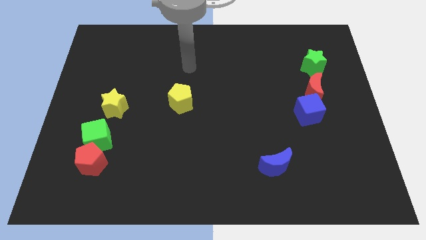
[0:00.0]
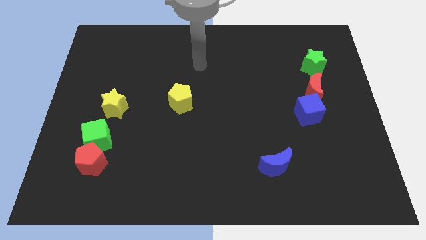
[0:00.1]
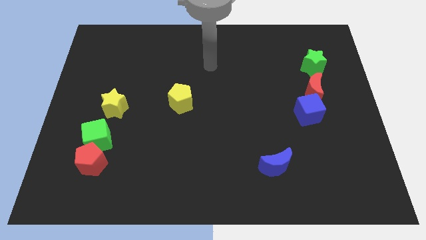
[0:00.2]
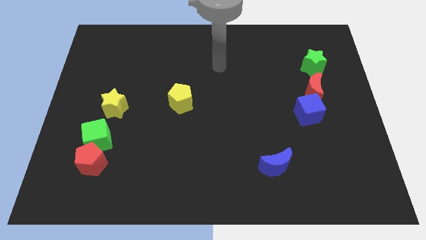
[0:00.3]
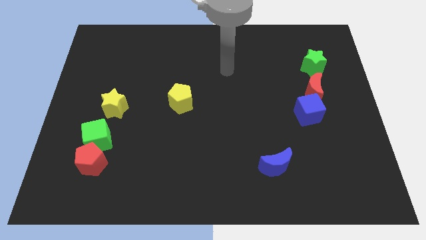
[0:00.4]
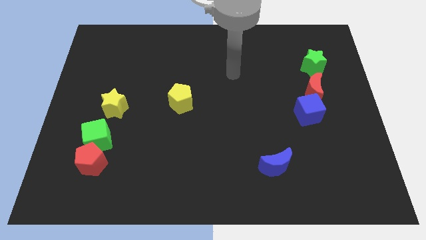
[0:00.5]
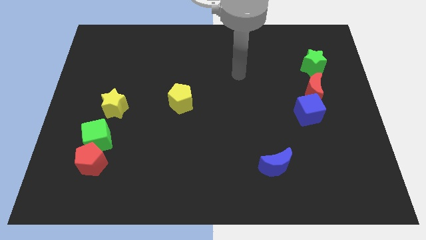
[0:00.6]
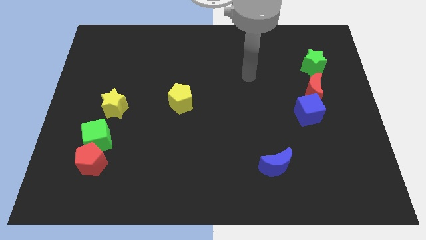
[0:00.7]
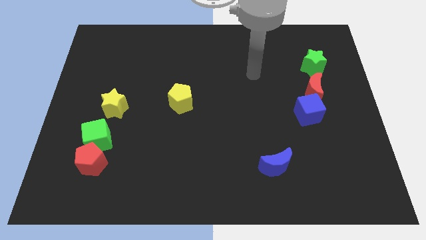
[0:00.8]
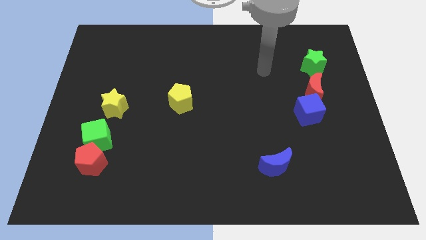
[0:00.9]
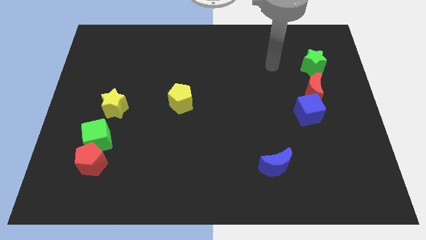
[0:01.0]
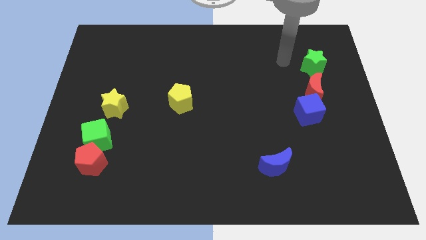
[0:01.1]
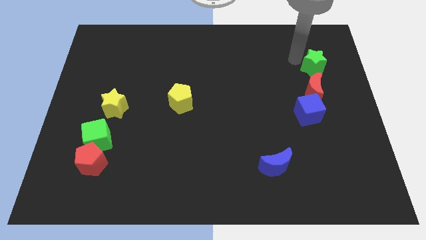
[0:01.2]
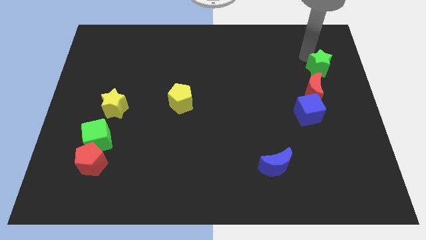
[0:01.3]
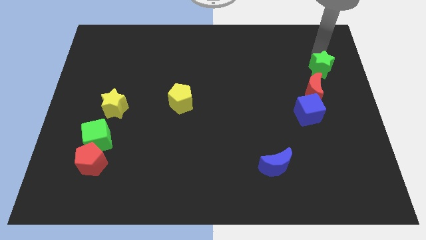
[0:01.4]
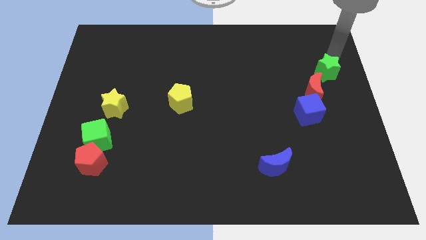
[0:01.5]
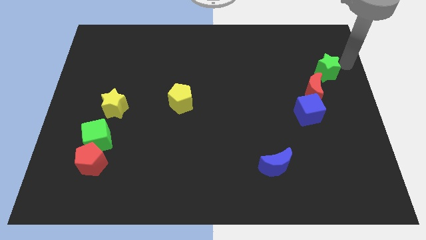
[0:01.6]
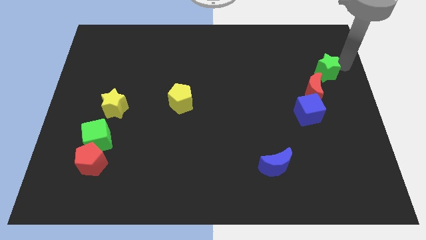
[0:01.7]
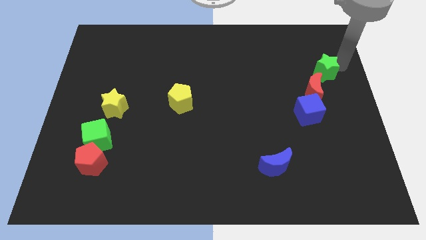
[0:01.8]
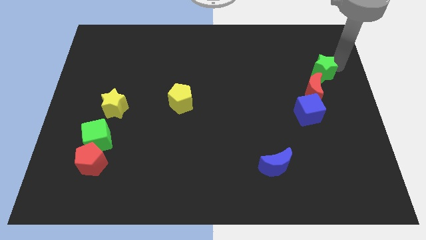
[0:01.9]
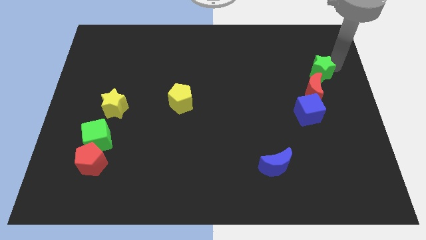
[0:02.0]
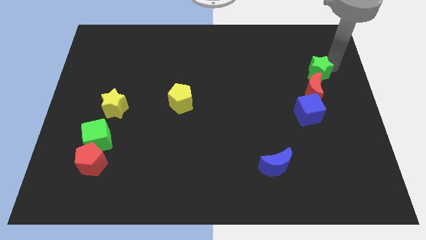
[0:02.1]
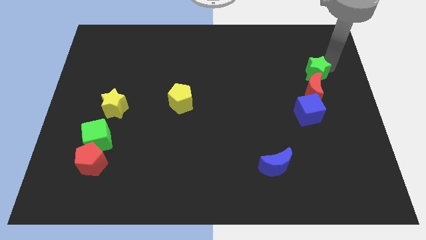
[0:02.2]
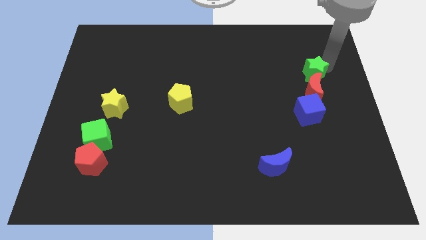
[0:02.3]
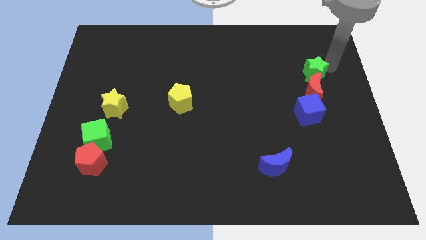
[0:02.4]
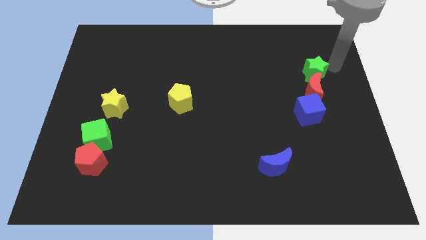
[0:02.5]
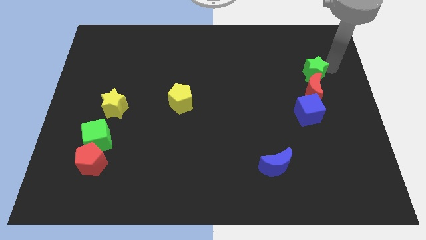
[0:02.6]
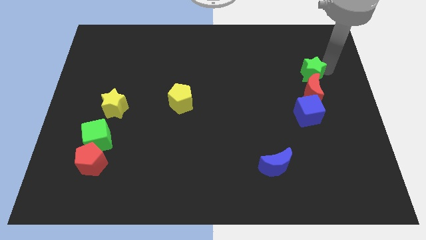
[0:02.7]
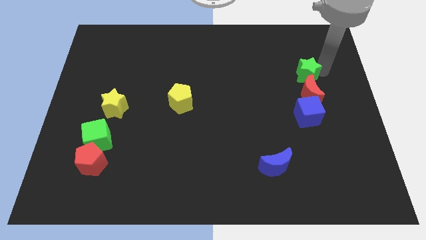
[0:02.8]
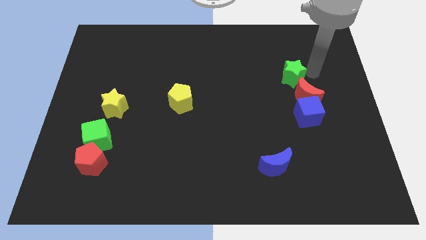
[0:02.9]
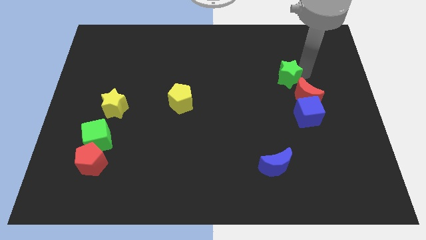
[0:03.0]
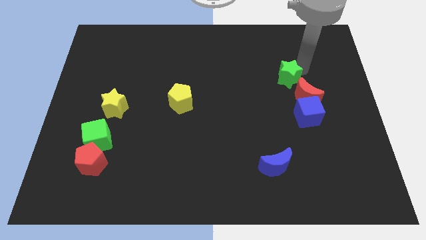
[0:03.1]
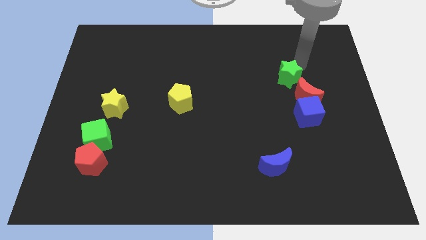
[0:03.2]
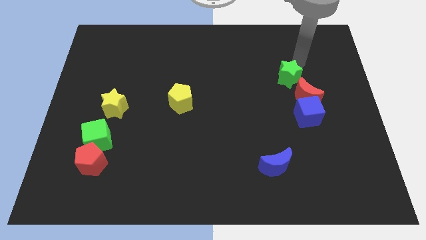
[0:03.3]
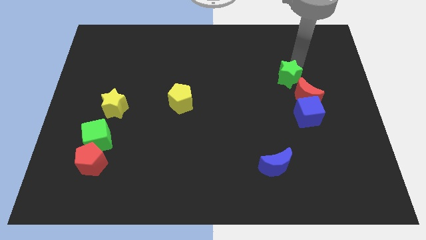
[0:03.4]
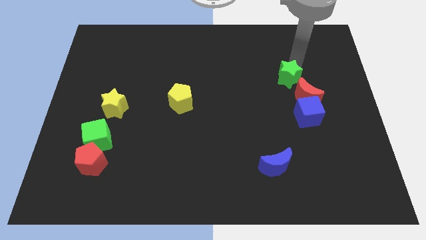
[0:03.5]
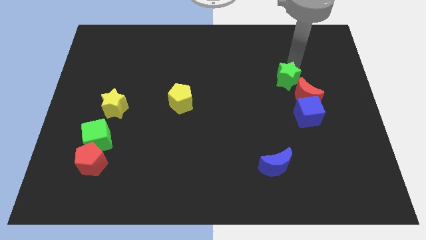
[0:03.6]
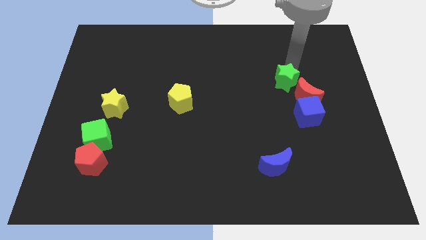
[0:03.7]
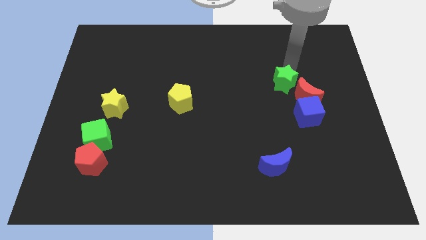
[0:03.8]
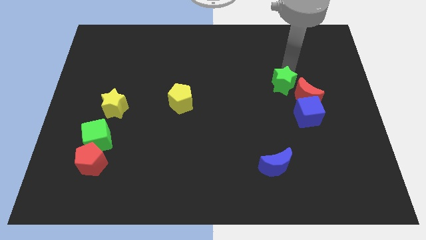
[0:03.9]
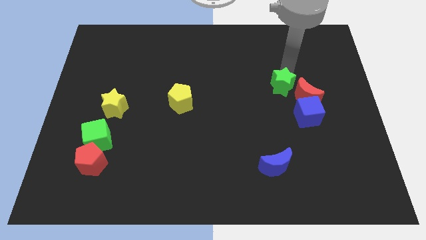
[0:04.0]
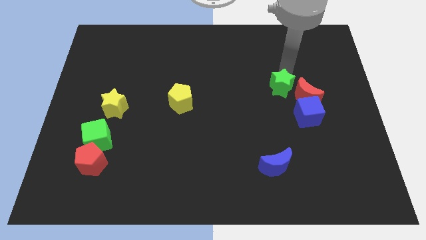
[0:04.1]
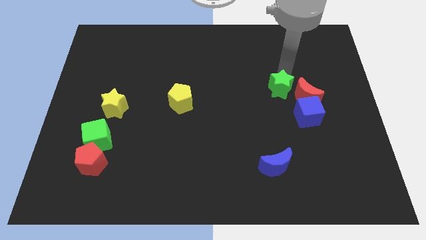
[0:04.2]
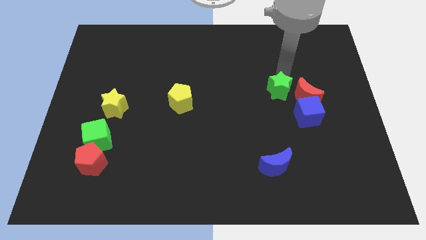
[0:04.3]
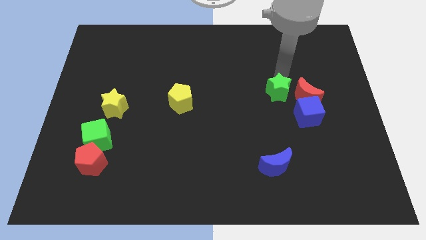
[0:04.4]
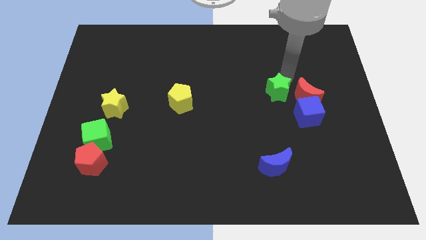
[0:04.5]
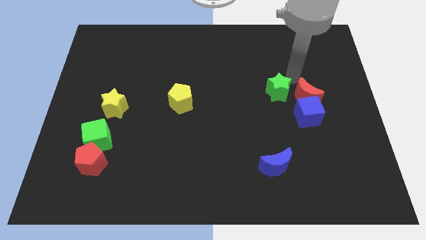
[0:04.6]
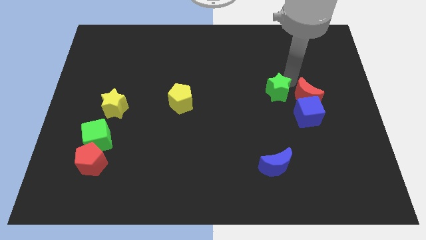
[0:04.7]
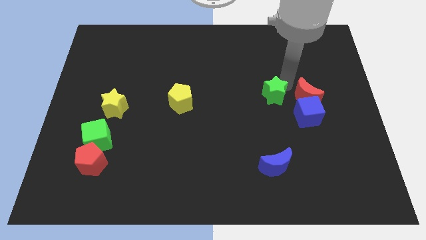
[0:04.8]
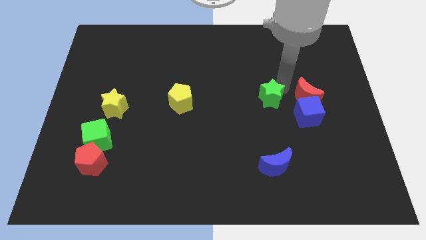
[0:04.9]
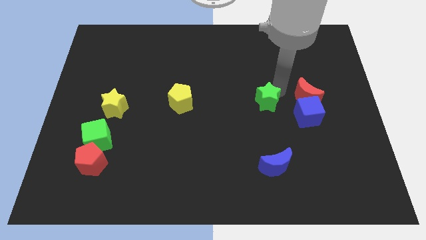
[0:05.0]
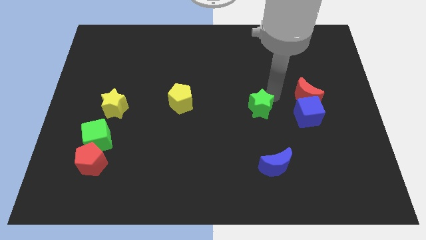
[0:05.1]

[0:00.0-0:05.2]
slide the green star down and left diagonally

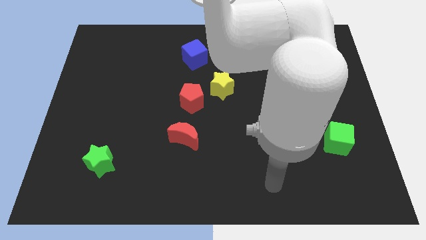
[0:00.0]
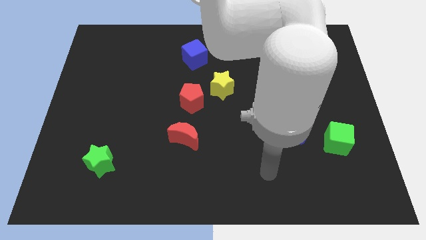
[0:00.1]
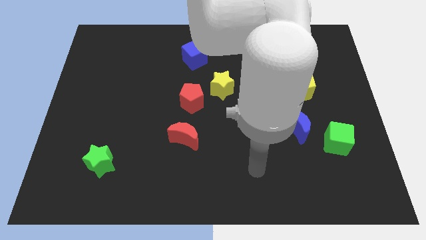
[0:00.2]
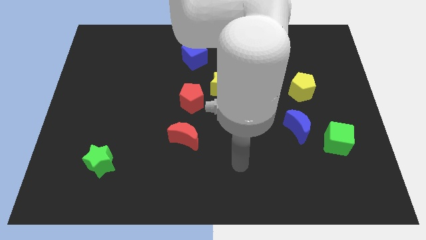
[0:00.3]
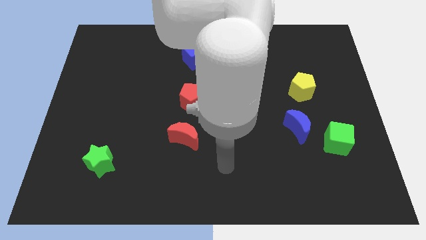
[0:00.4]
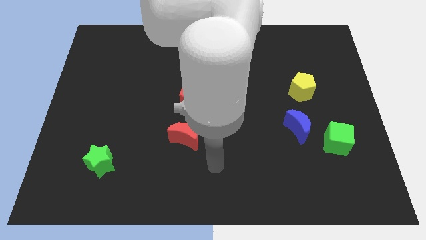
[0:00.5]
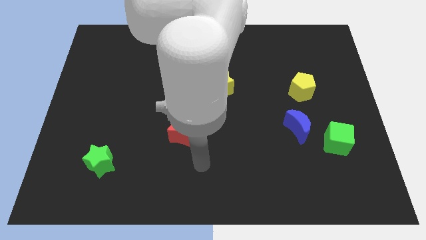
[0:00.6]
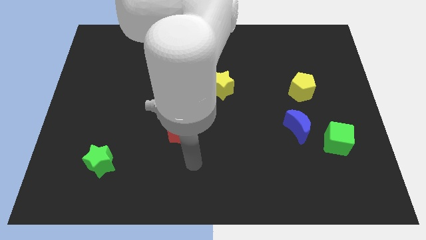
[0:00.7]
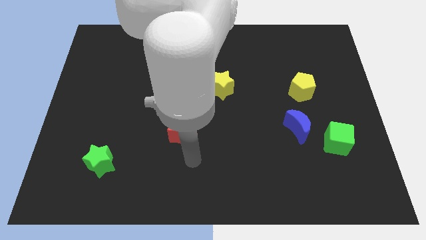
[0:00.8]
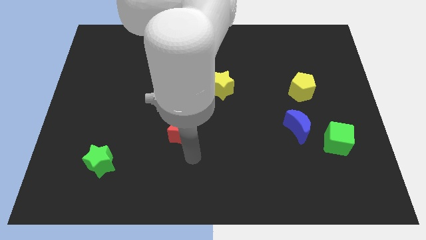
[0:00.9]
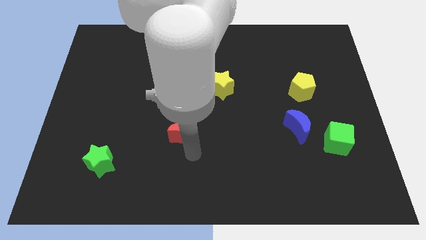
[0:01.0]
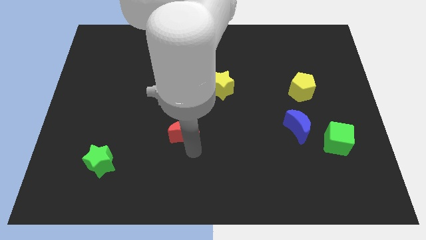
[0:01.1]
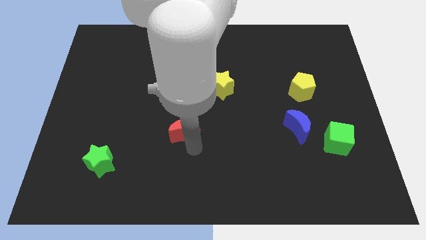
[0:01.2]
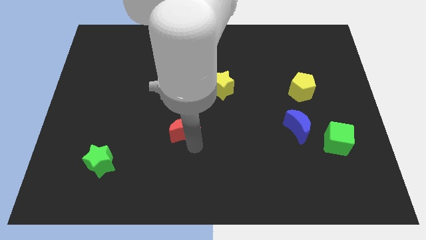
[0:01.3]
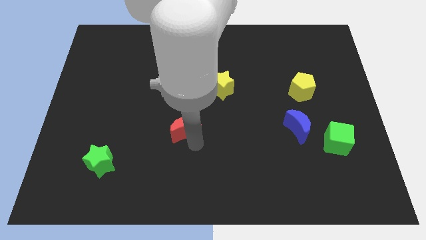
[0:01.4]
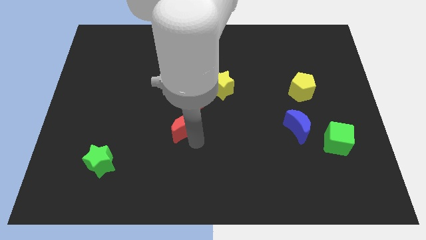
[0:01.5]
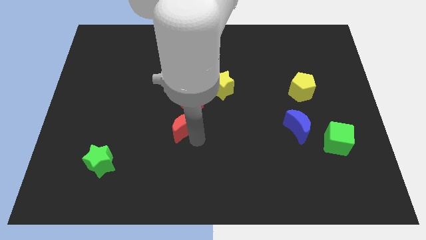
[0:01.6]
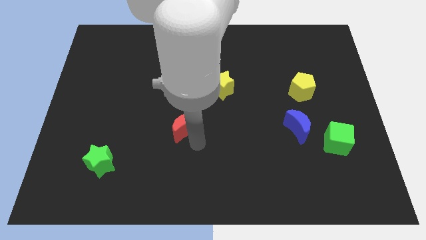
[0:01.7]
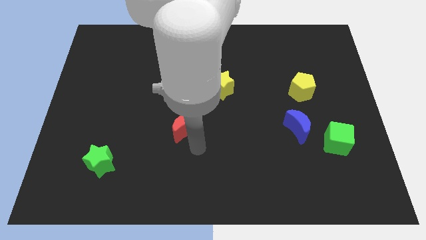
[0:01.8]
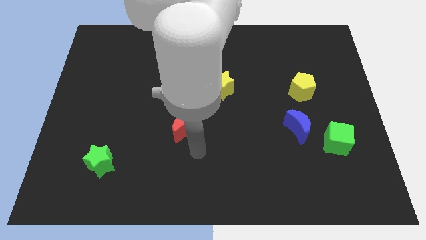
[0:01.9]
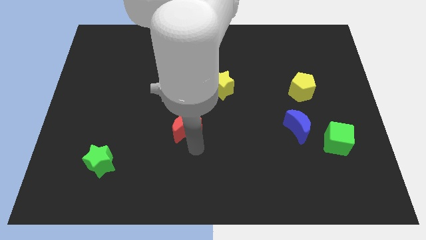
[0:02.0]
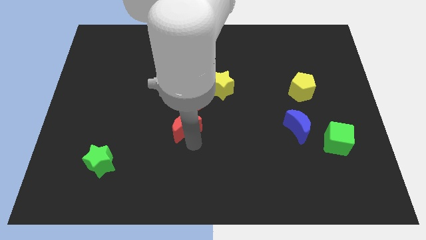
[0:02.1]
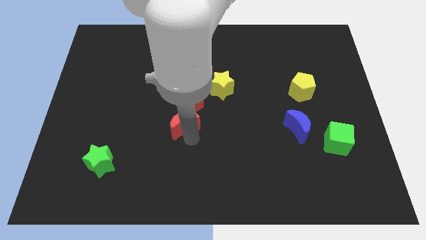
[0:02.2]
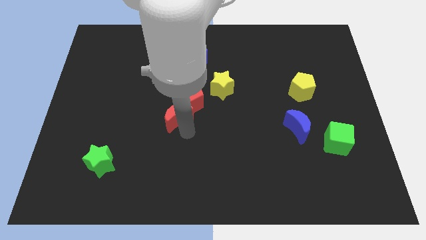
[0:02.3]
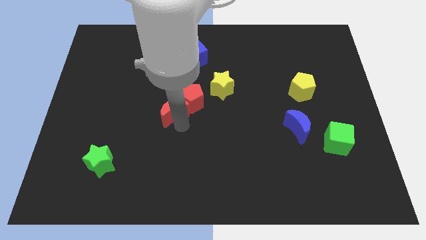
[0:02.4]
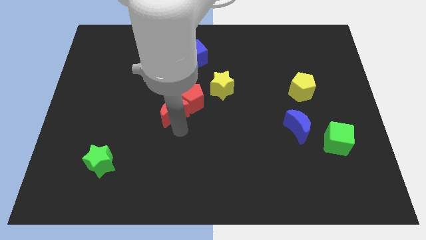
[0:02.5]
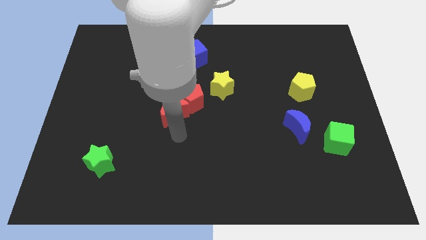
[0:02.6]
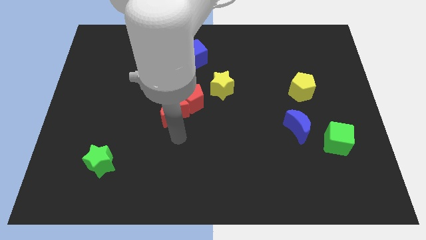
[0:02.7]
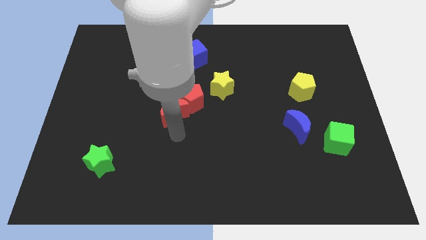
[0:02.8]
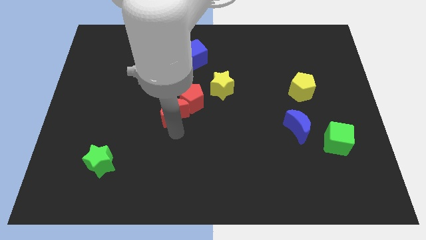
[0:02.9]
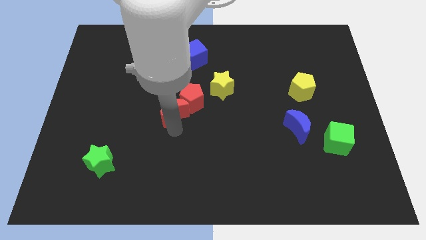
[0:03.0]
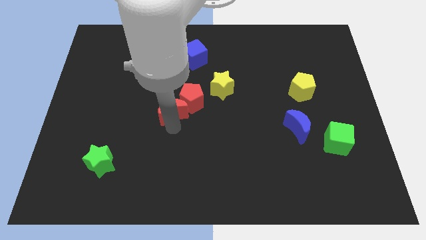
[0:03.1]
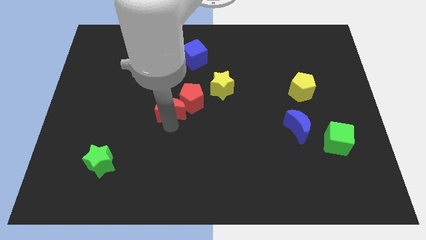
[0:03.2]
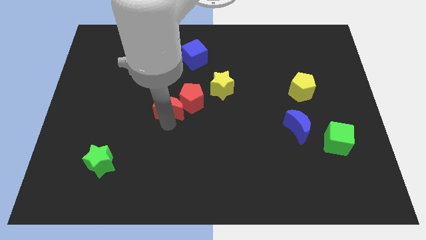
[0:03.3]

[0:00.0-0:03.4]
slightly slide the red moon upwards
